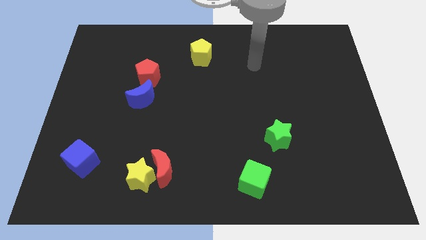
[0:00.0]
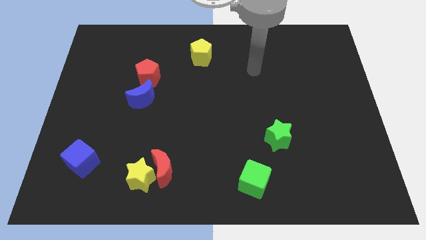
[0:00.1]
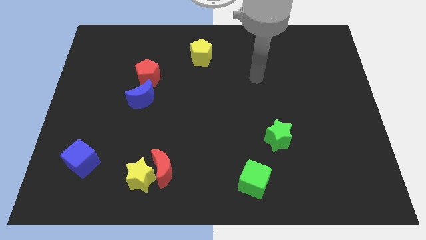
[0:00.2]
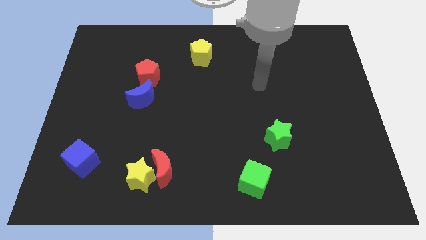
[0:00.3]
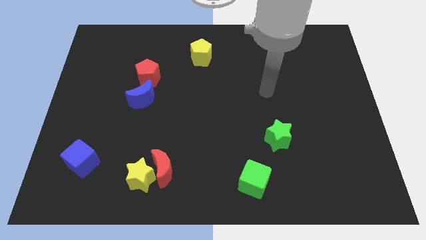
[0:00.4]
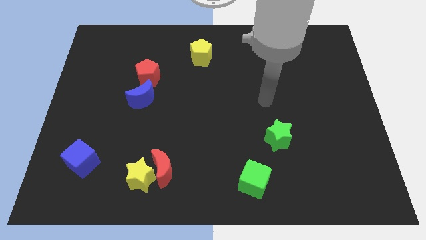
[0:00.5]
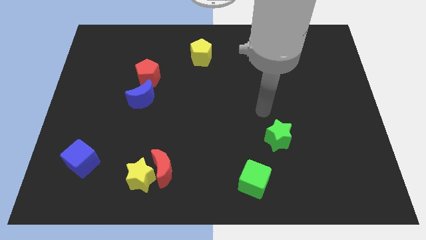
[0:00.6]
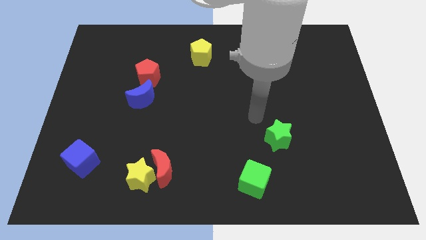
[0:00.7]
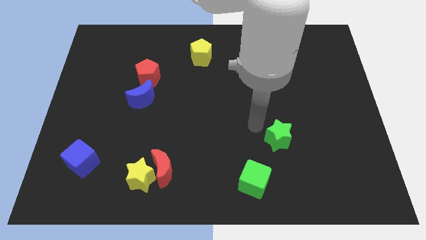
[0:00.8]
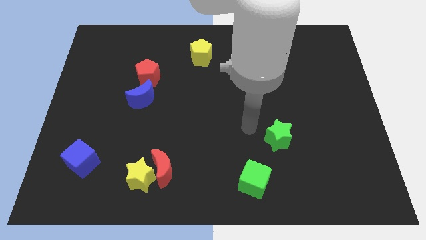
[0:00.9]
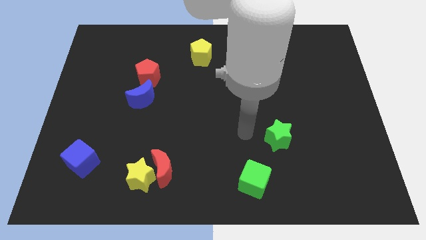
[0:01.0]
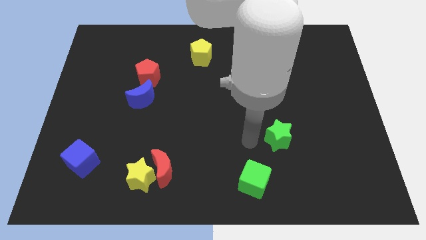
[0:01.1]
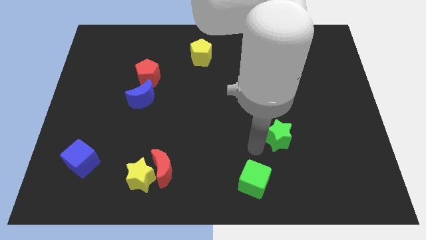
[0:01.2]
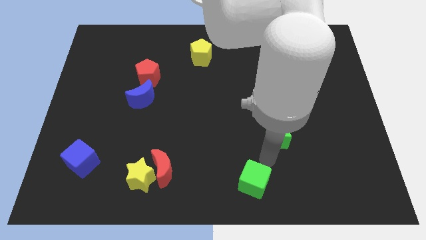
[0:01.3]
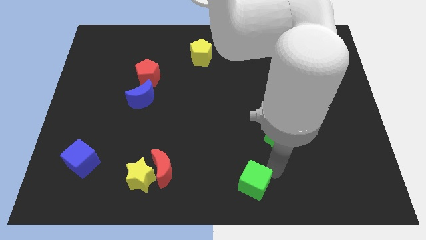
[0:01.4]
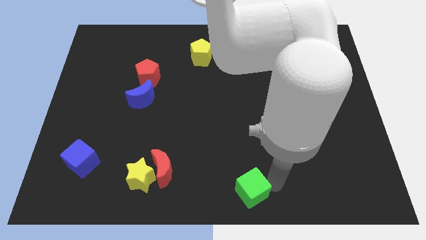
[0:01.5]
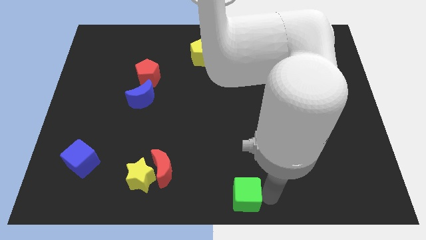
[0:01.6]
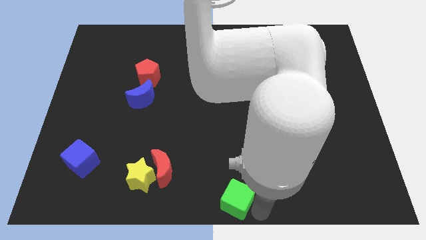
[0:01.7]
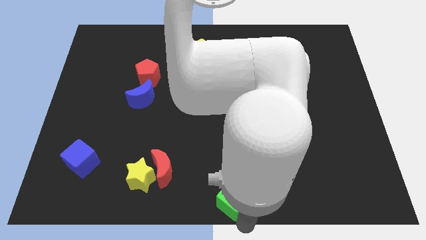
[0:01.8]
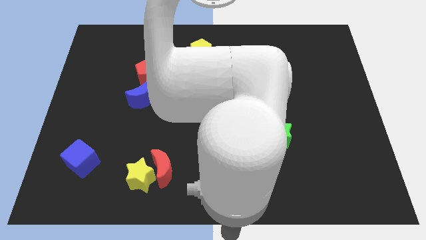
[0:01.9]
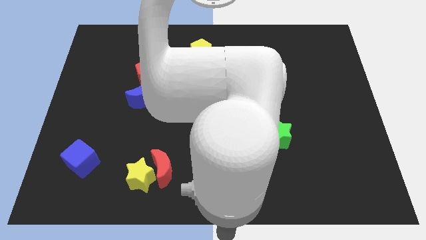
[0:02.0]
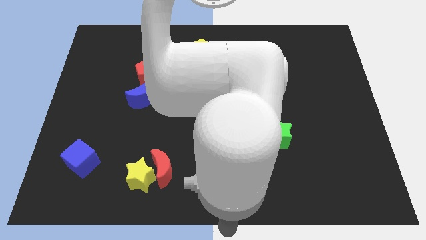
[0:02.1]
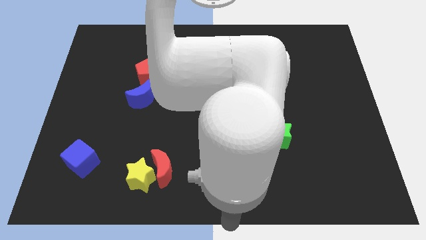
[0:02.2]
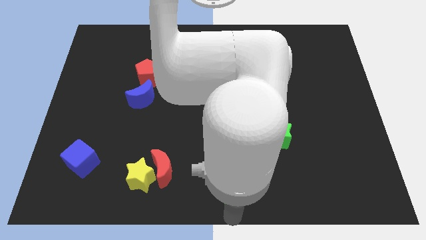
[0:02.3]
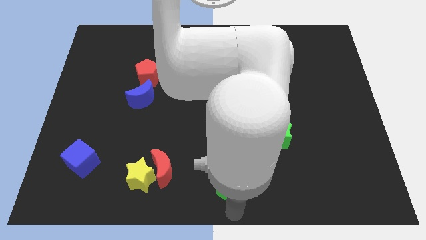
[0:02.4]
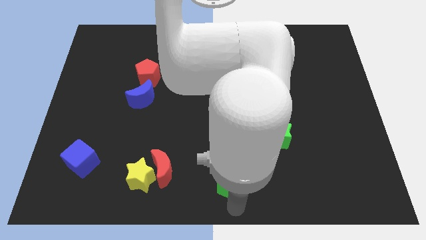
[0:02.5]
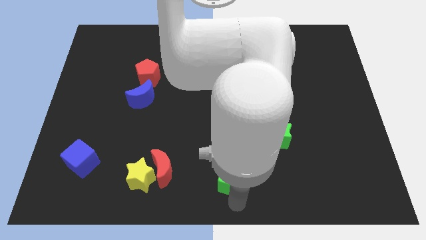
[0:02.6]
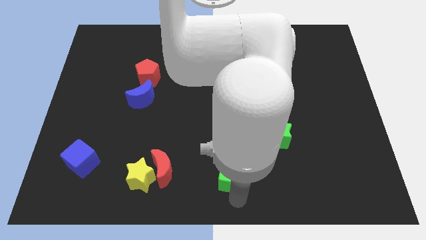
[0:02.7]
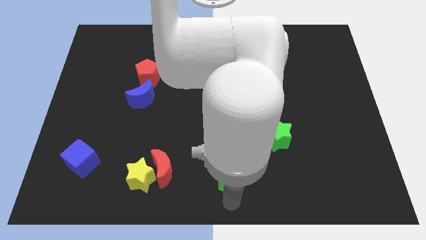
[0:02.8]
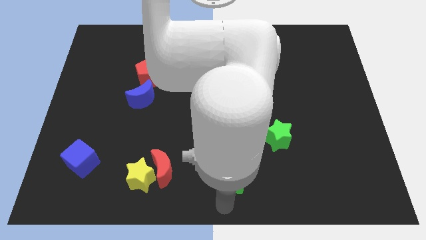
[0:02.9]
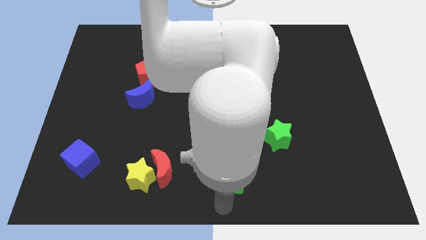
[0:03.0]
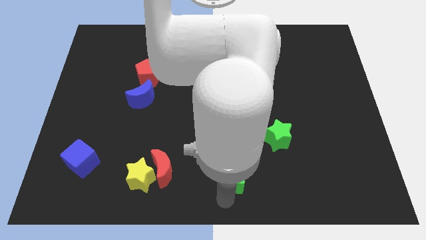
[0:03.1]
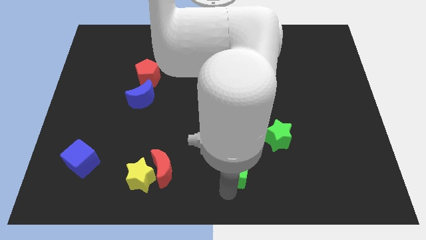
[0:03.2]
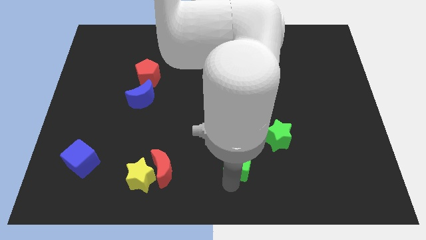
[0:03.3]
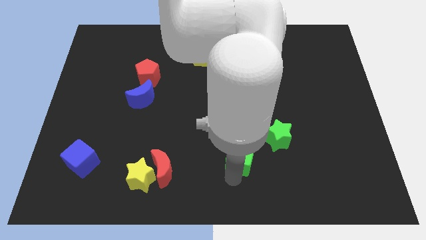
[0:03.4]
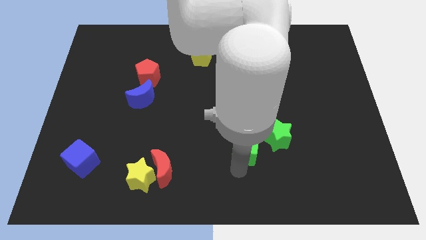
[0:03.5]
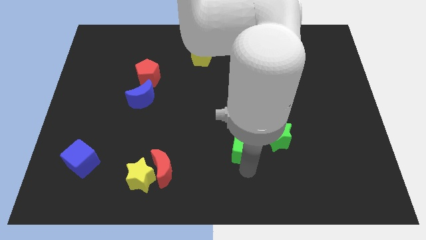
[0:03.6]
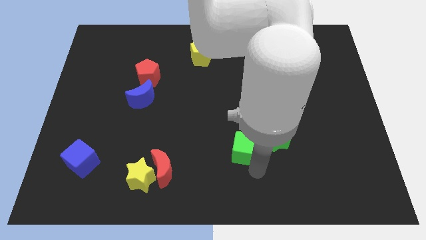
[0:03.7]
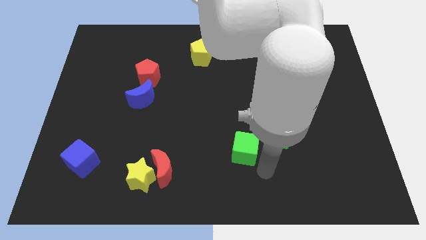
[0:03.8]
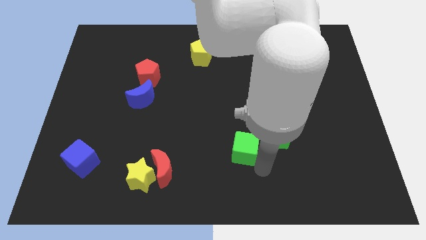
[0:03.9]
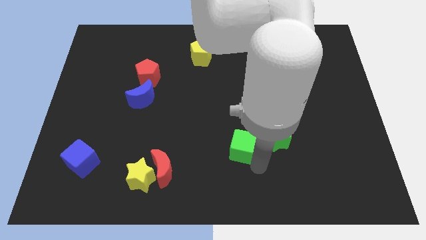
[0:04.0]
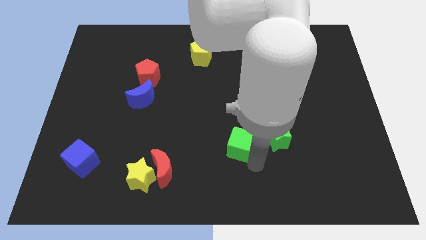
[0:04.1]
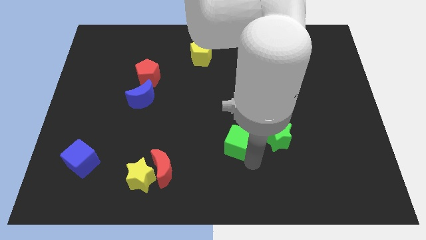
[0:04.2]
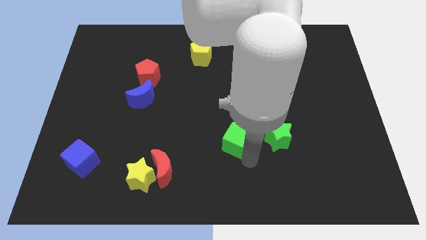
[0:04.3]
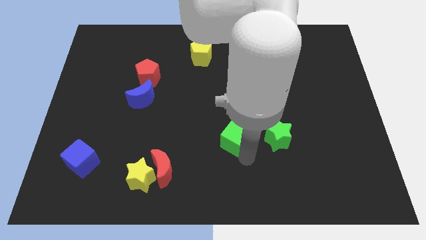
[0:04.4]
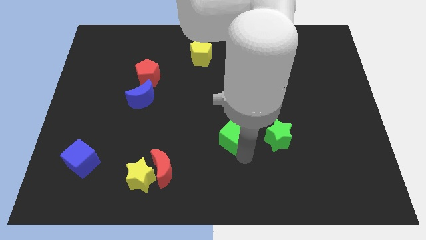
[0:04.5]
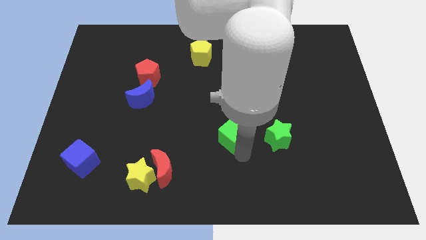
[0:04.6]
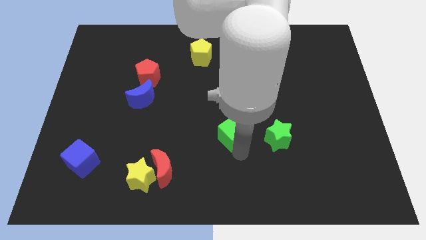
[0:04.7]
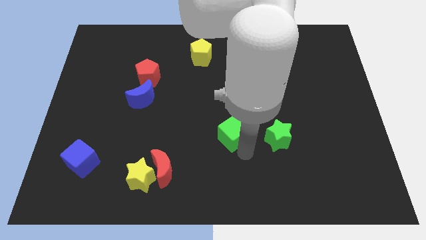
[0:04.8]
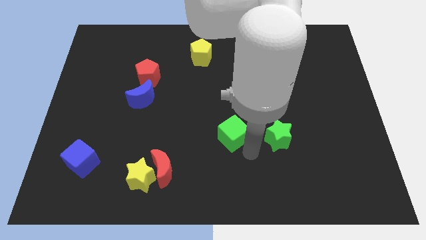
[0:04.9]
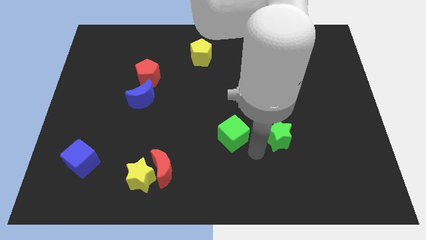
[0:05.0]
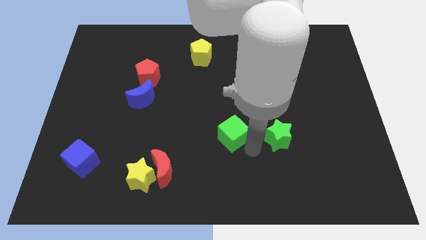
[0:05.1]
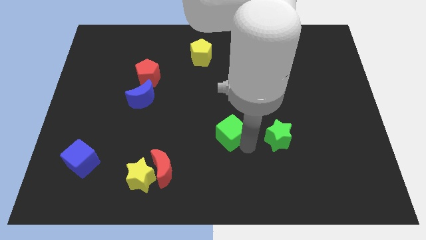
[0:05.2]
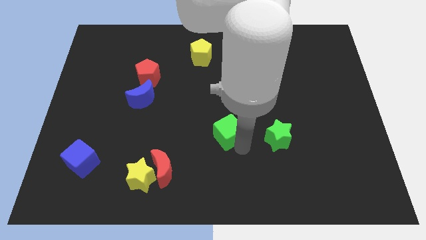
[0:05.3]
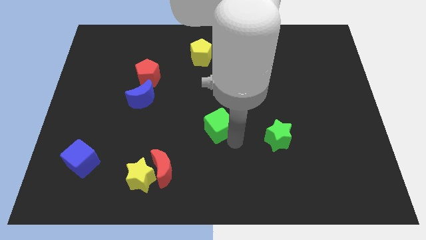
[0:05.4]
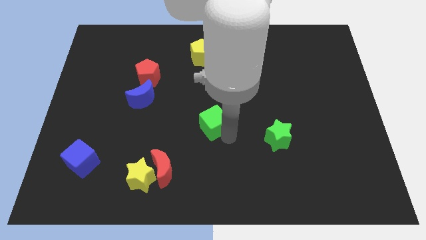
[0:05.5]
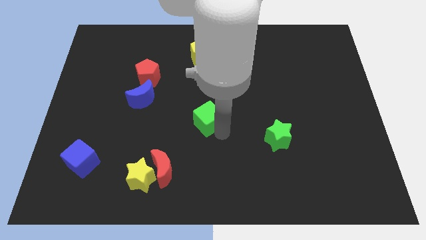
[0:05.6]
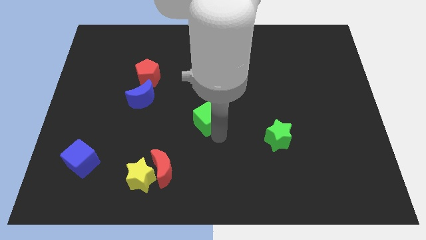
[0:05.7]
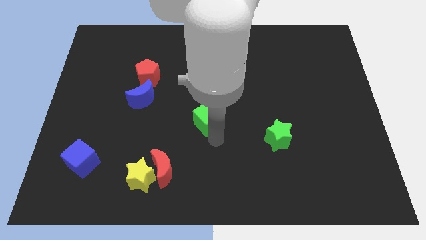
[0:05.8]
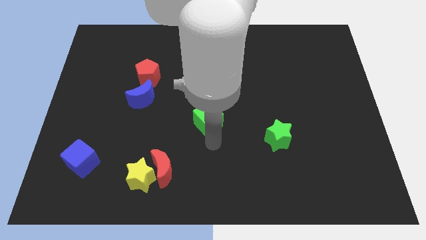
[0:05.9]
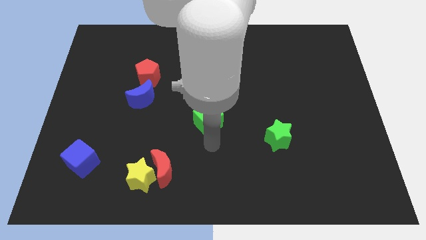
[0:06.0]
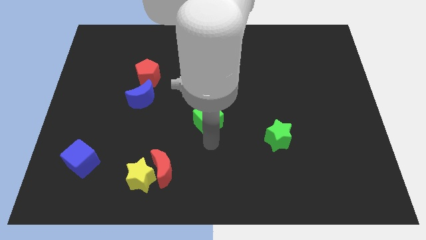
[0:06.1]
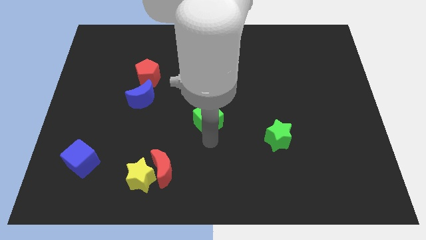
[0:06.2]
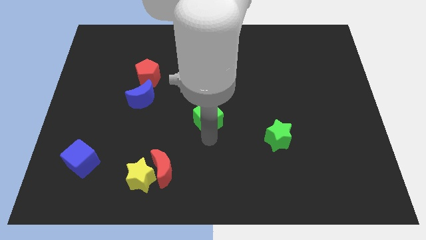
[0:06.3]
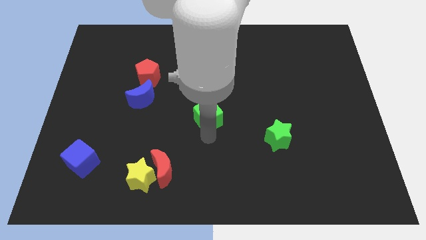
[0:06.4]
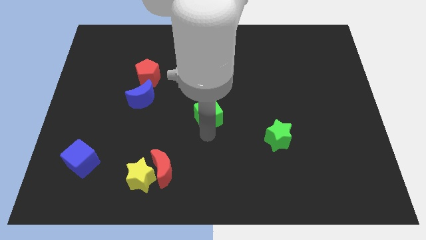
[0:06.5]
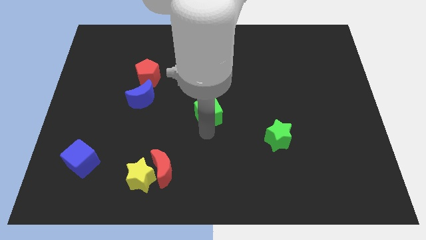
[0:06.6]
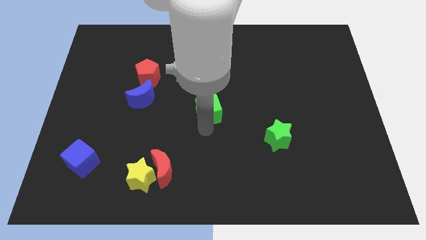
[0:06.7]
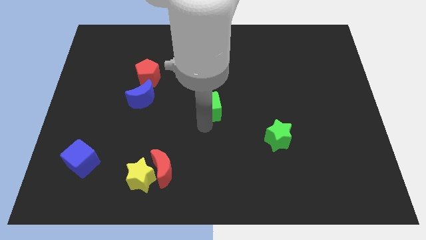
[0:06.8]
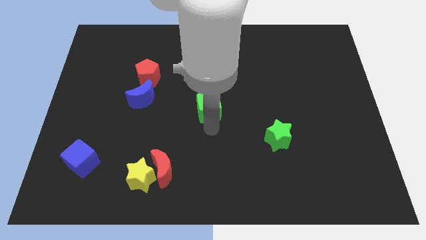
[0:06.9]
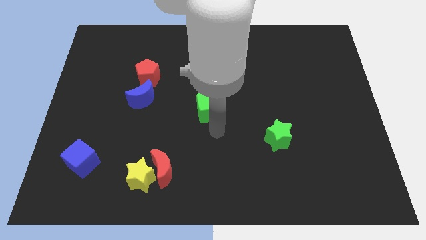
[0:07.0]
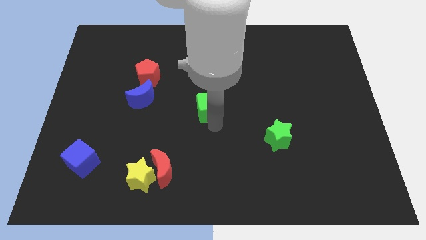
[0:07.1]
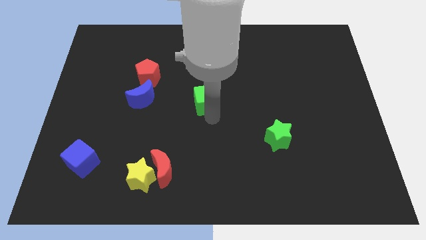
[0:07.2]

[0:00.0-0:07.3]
move the green cube to the bottom side of the yellow pentagon
